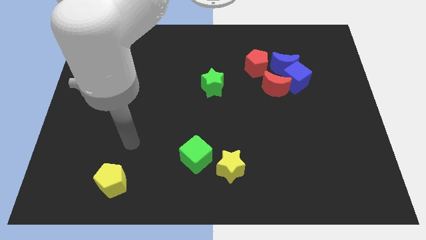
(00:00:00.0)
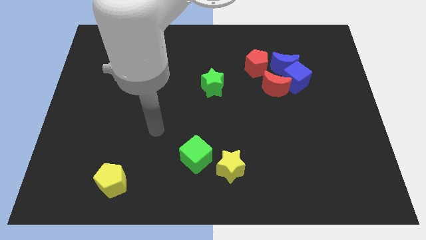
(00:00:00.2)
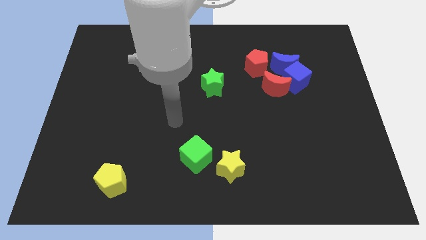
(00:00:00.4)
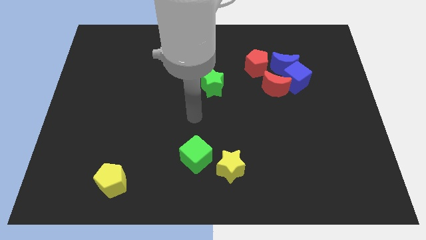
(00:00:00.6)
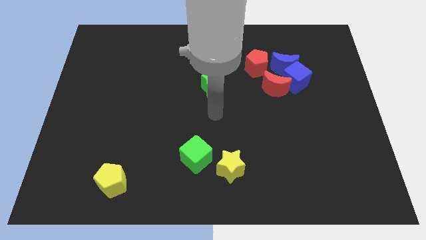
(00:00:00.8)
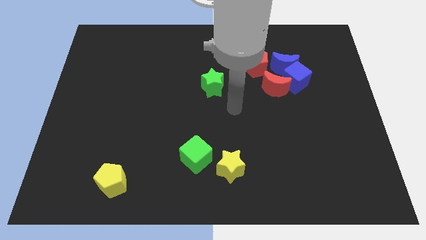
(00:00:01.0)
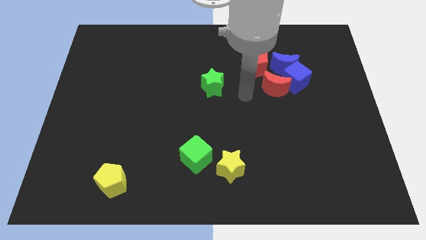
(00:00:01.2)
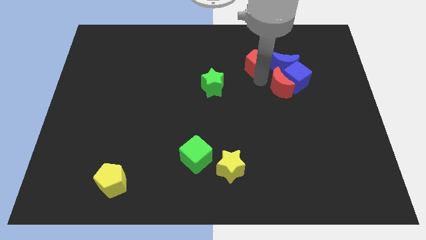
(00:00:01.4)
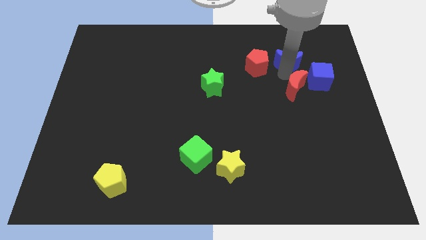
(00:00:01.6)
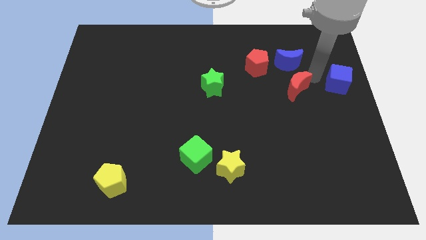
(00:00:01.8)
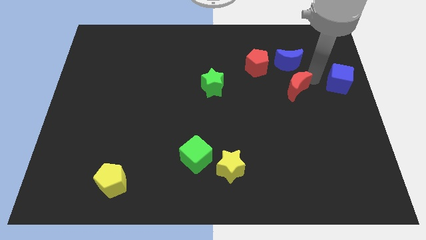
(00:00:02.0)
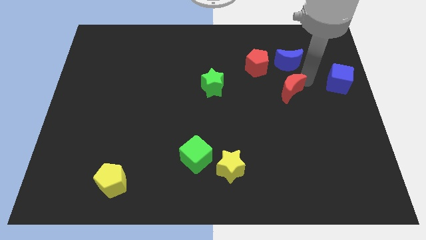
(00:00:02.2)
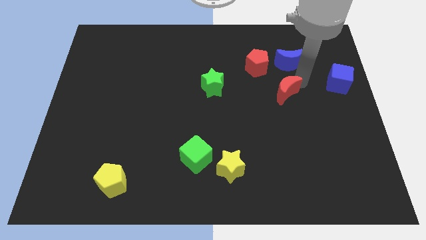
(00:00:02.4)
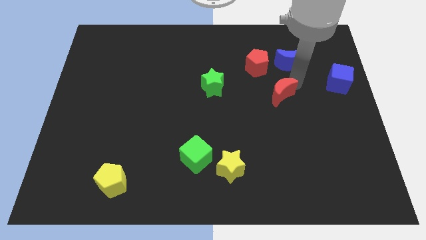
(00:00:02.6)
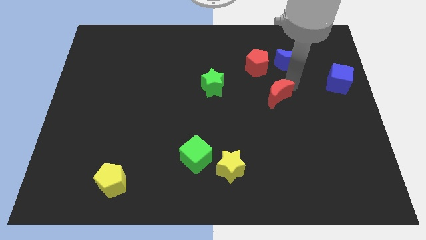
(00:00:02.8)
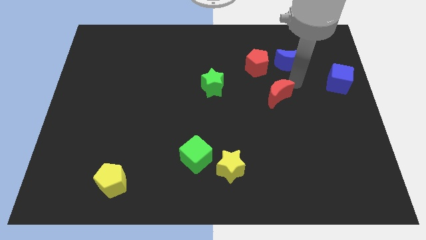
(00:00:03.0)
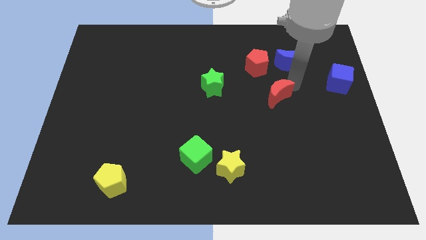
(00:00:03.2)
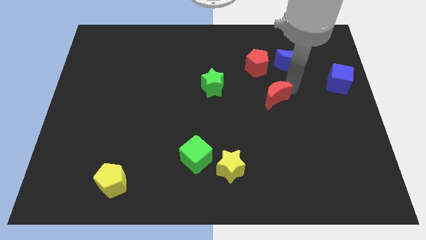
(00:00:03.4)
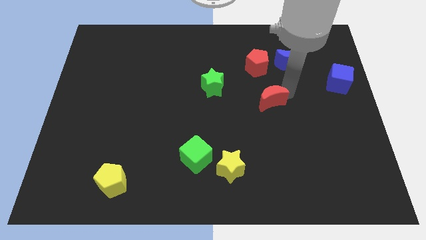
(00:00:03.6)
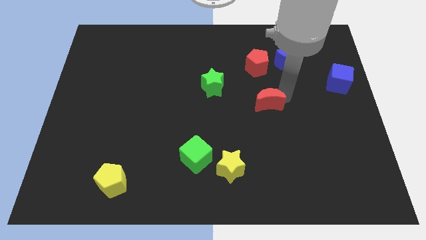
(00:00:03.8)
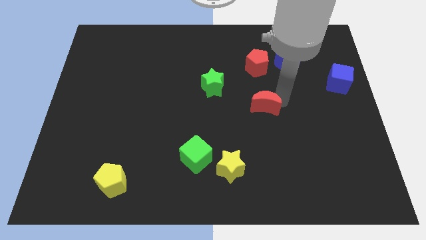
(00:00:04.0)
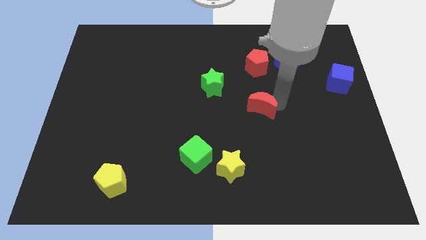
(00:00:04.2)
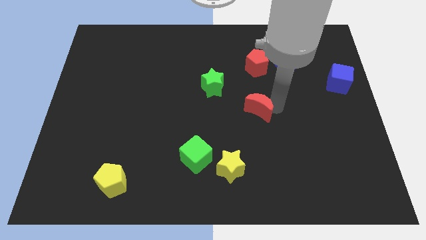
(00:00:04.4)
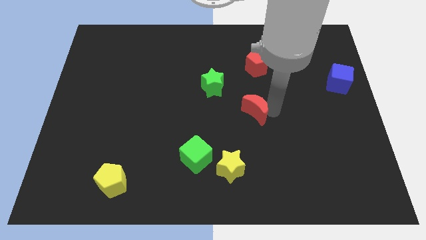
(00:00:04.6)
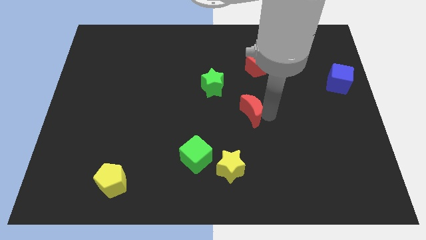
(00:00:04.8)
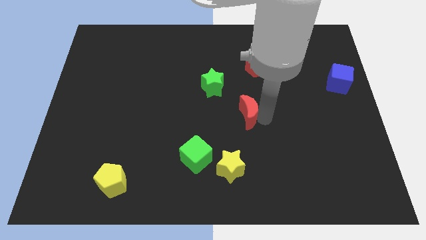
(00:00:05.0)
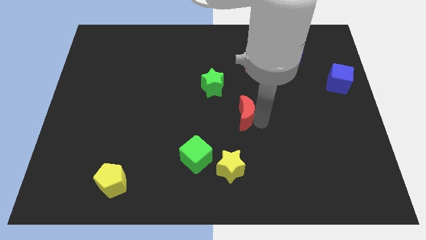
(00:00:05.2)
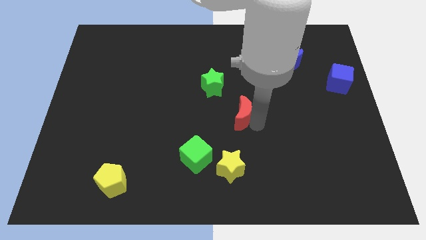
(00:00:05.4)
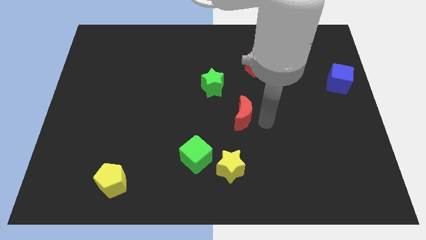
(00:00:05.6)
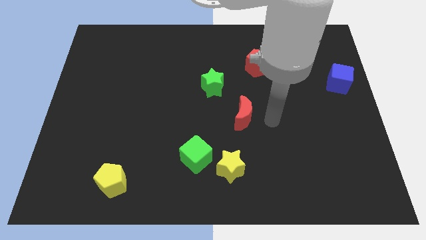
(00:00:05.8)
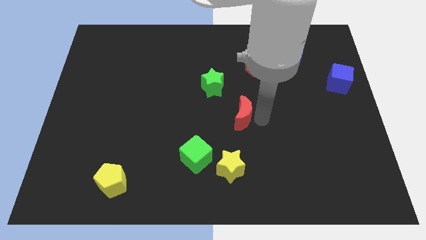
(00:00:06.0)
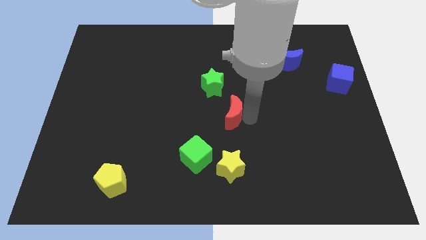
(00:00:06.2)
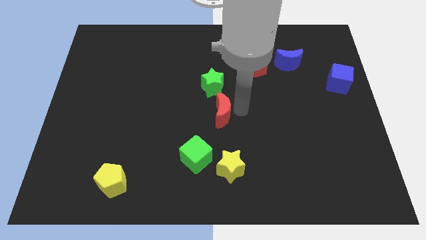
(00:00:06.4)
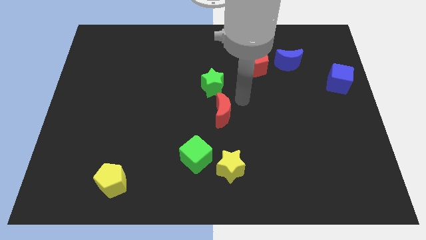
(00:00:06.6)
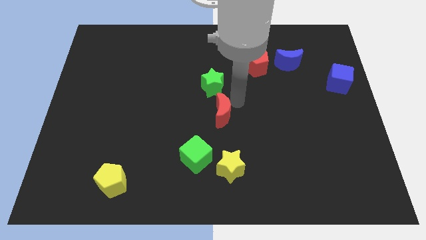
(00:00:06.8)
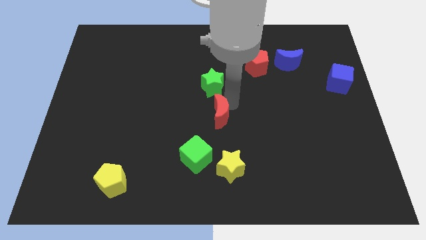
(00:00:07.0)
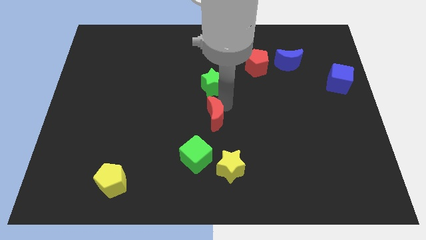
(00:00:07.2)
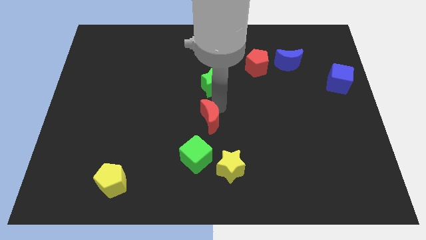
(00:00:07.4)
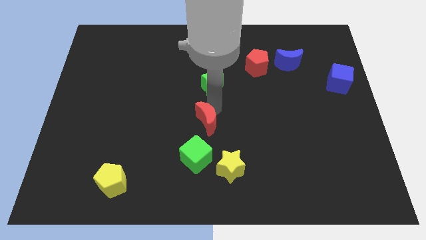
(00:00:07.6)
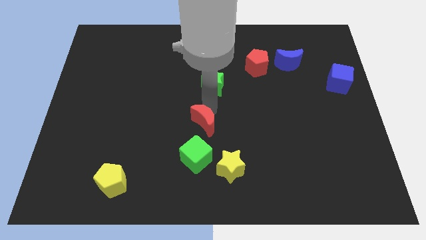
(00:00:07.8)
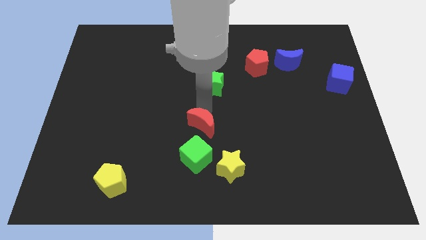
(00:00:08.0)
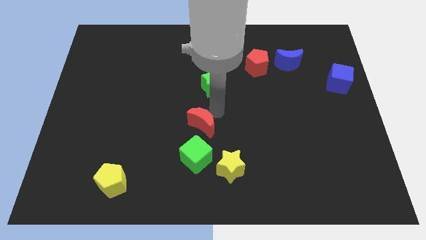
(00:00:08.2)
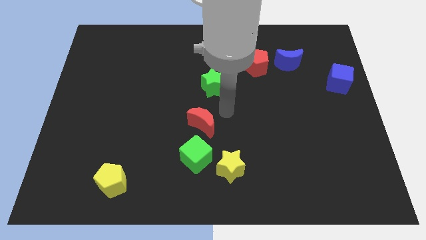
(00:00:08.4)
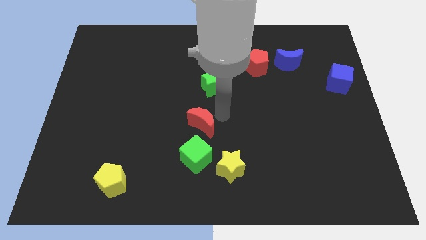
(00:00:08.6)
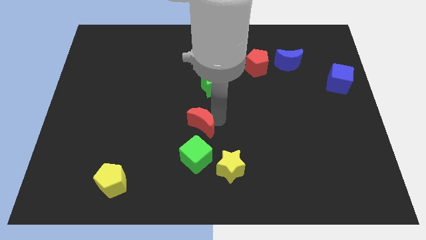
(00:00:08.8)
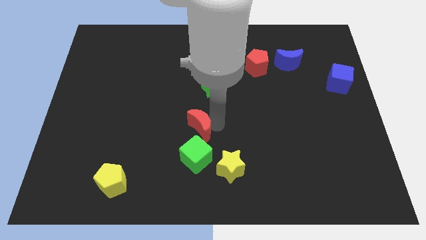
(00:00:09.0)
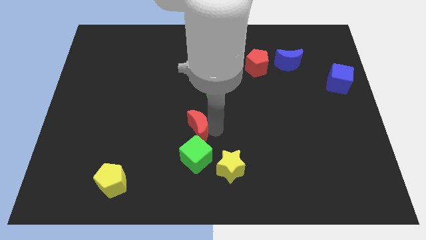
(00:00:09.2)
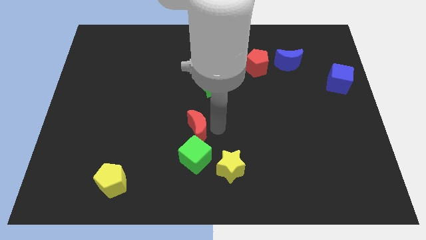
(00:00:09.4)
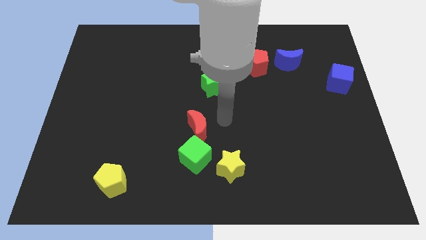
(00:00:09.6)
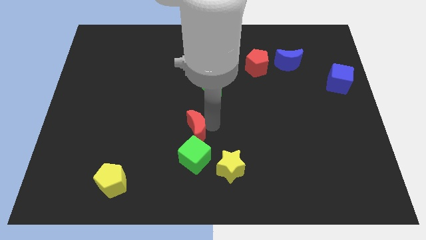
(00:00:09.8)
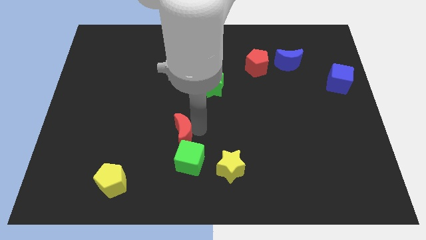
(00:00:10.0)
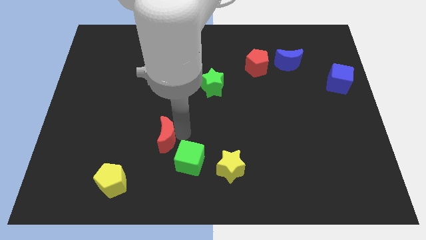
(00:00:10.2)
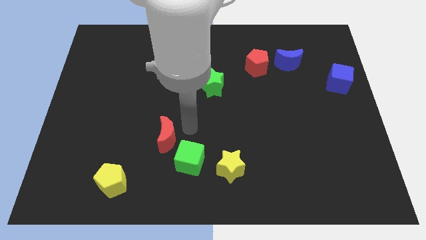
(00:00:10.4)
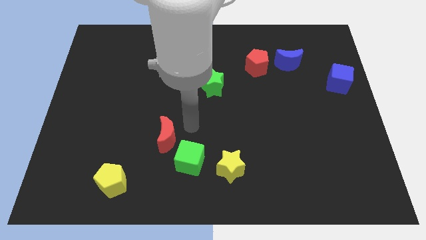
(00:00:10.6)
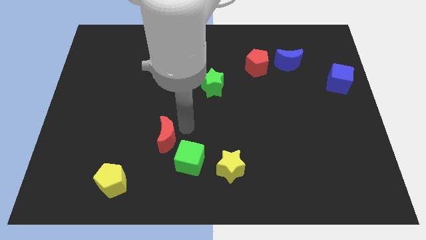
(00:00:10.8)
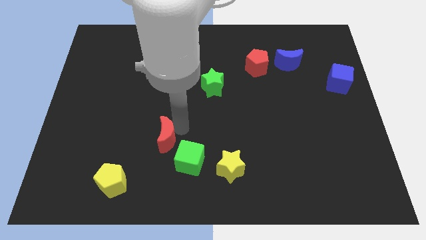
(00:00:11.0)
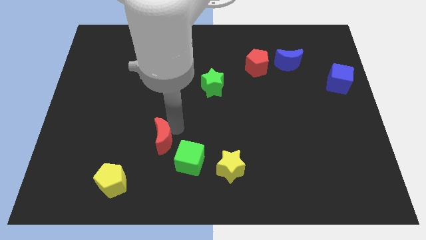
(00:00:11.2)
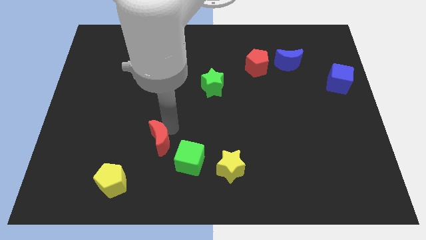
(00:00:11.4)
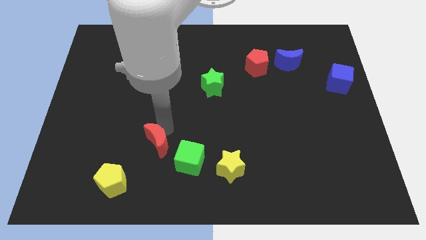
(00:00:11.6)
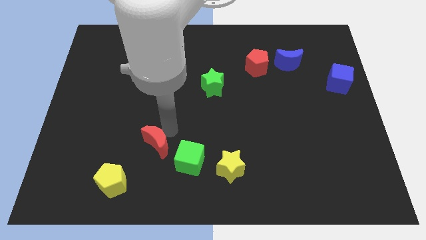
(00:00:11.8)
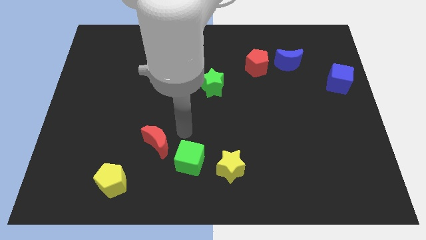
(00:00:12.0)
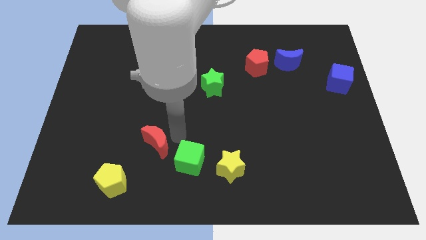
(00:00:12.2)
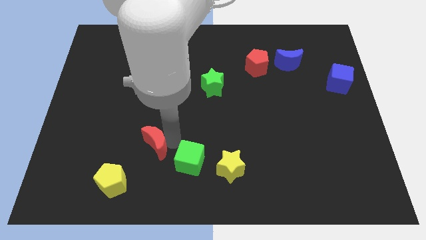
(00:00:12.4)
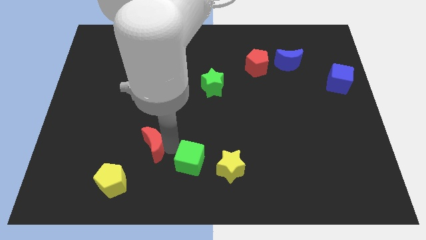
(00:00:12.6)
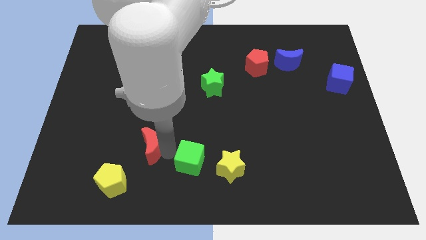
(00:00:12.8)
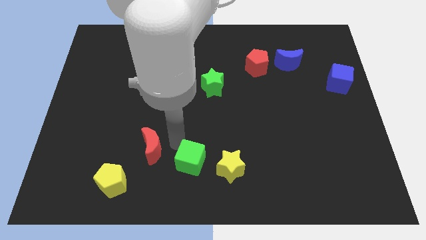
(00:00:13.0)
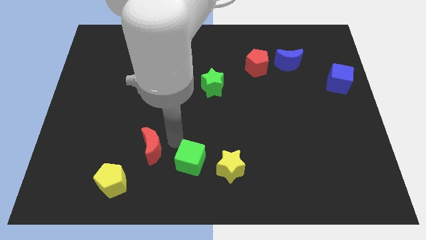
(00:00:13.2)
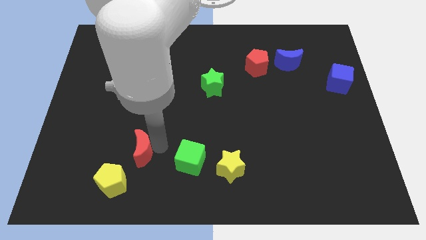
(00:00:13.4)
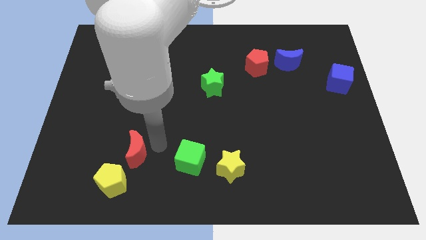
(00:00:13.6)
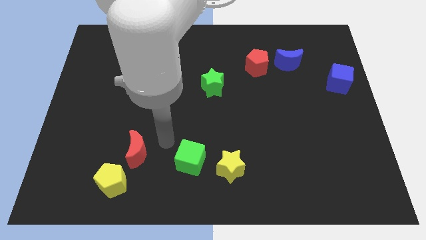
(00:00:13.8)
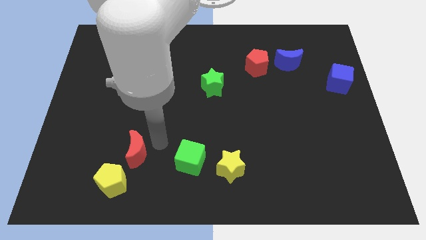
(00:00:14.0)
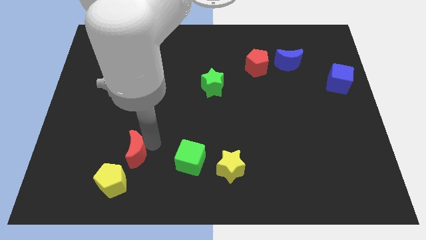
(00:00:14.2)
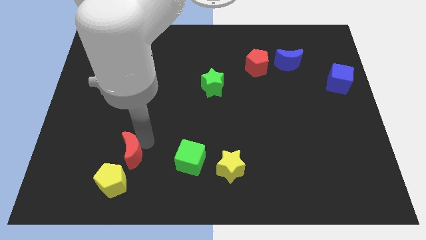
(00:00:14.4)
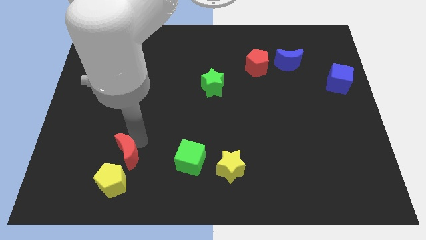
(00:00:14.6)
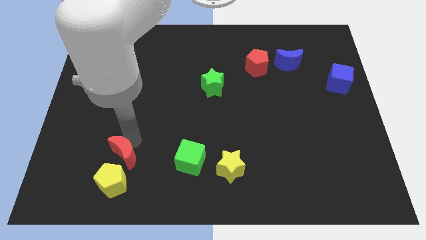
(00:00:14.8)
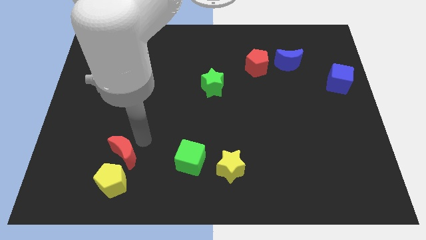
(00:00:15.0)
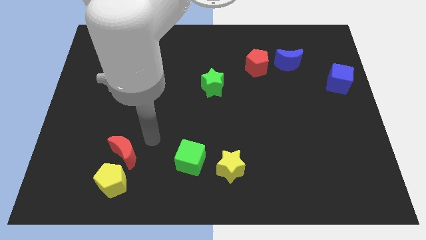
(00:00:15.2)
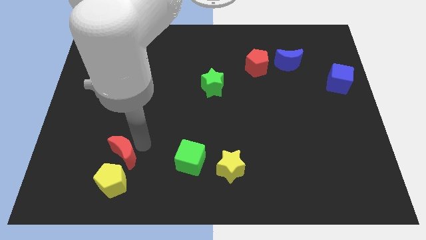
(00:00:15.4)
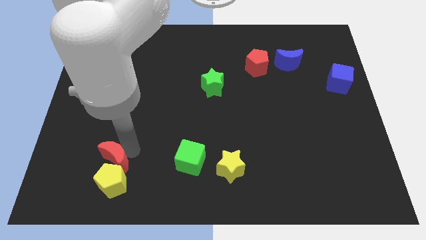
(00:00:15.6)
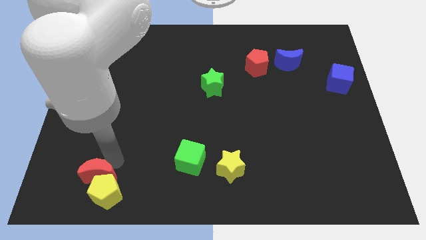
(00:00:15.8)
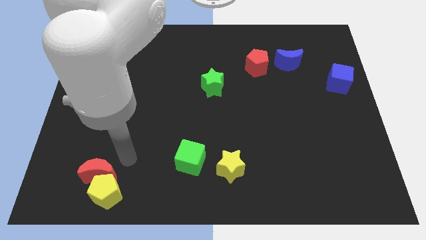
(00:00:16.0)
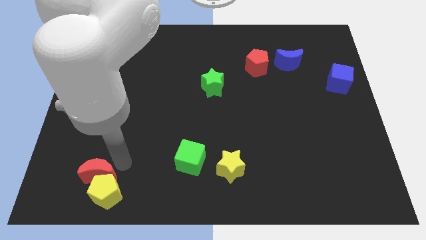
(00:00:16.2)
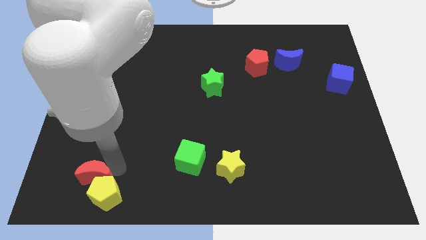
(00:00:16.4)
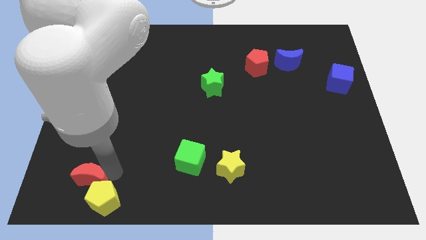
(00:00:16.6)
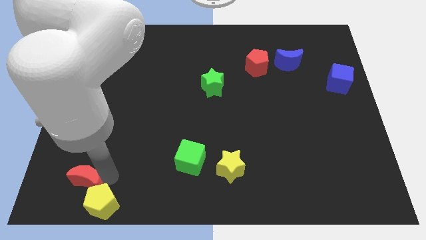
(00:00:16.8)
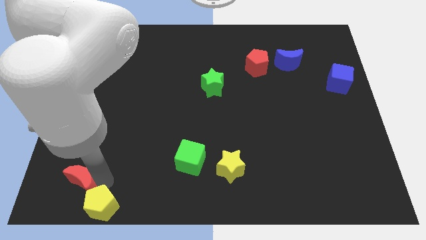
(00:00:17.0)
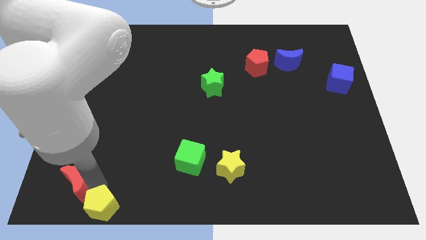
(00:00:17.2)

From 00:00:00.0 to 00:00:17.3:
put the red moon to the bottom left corner
